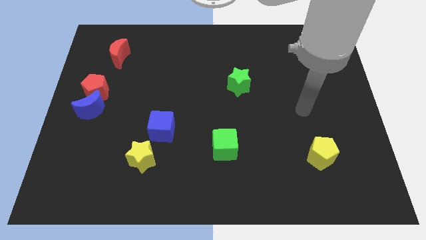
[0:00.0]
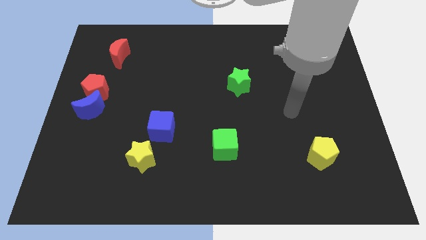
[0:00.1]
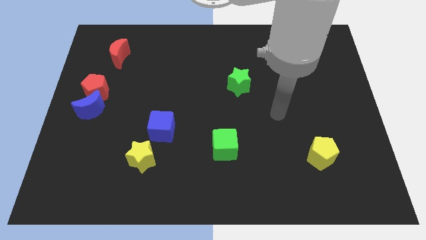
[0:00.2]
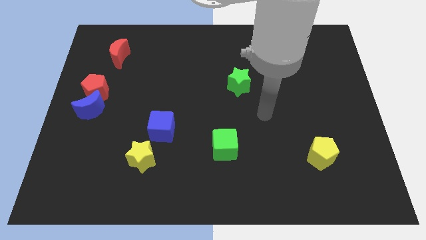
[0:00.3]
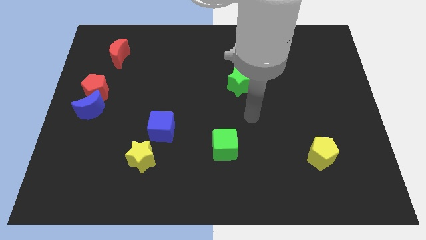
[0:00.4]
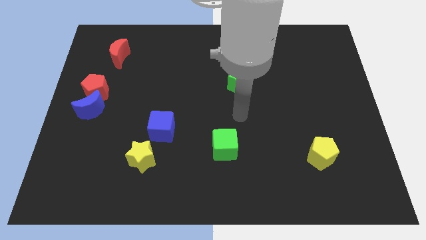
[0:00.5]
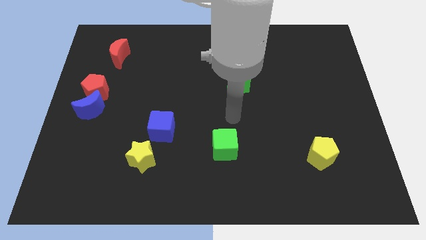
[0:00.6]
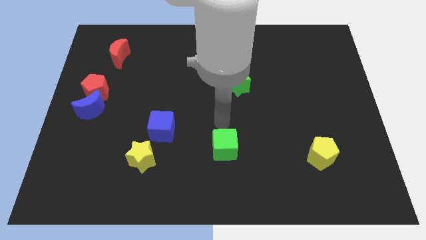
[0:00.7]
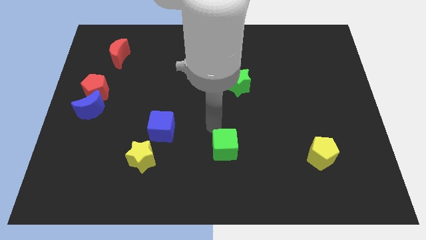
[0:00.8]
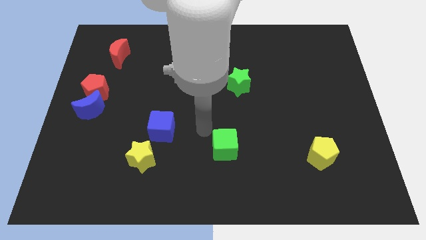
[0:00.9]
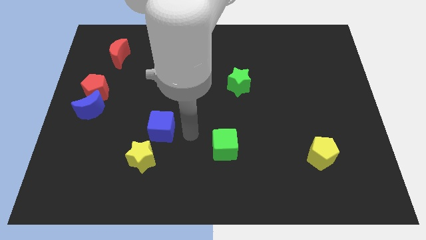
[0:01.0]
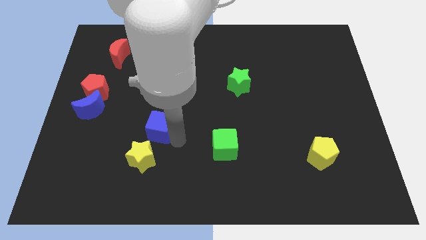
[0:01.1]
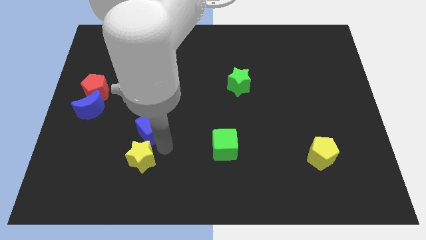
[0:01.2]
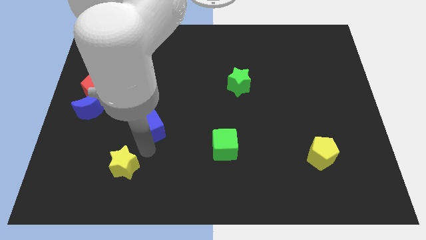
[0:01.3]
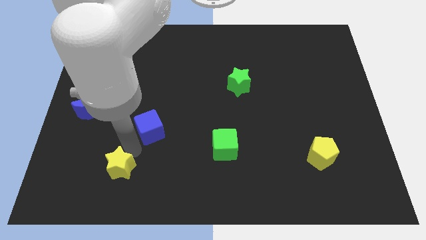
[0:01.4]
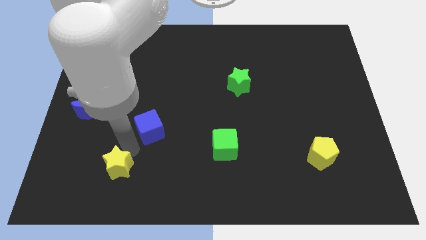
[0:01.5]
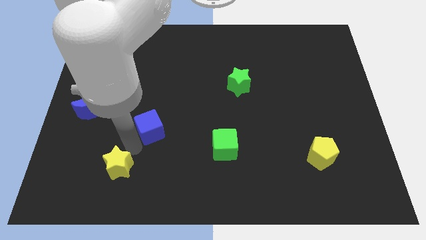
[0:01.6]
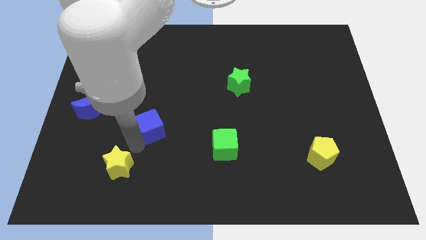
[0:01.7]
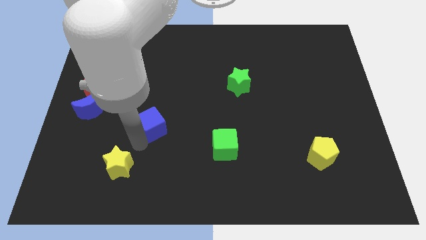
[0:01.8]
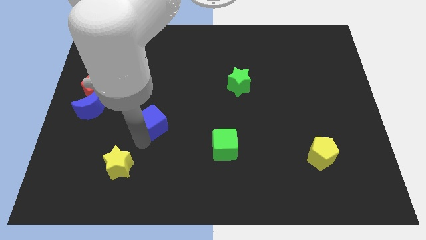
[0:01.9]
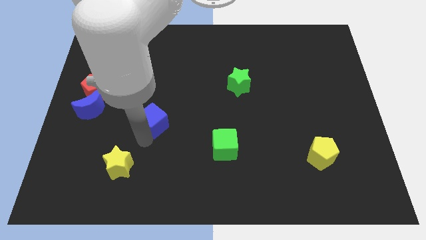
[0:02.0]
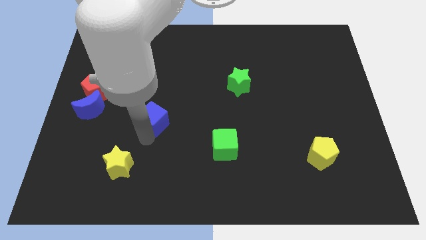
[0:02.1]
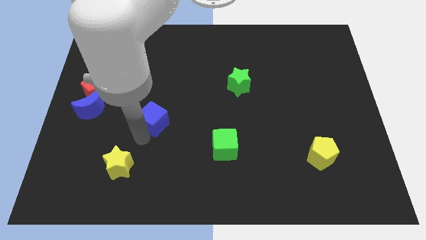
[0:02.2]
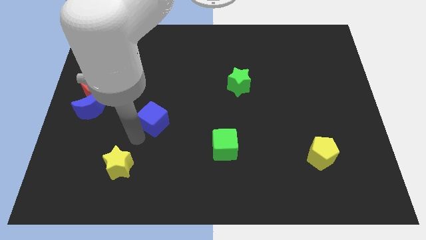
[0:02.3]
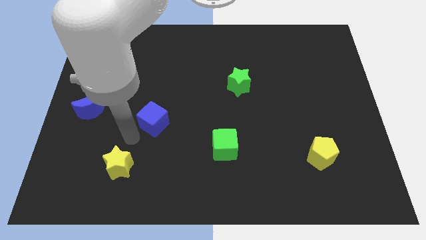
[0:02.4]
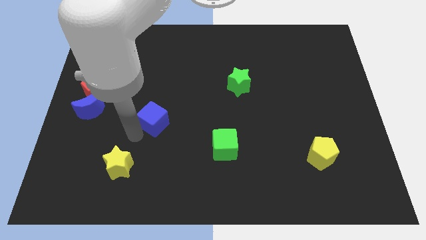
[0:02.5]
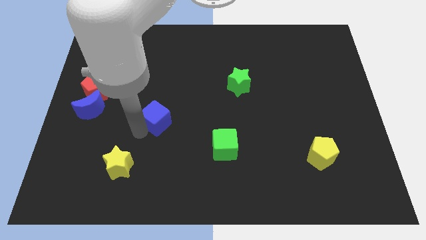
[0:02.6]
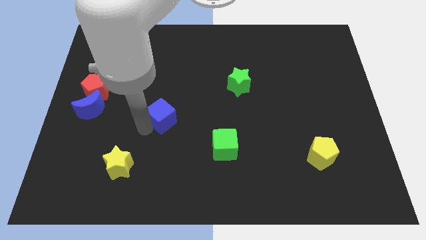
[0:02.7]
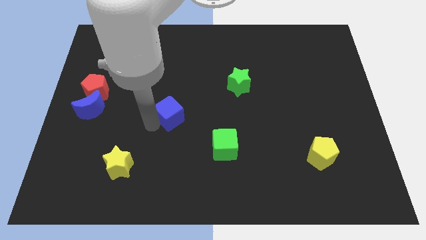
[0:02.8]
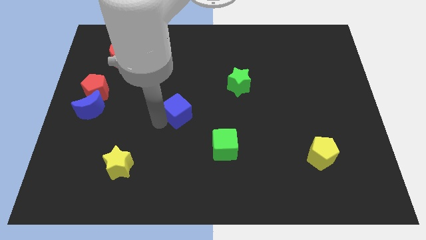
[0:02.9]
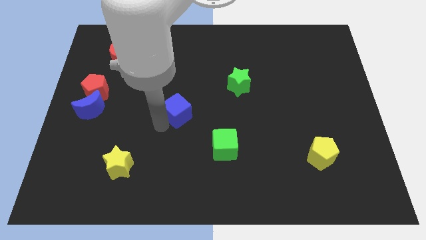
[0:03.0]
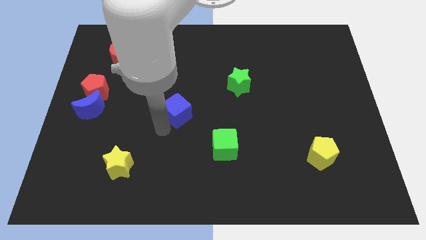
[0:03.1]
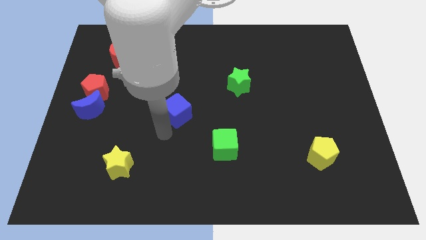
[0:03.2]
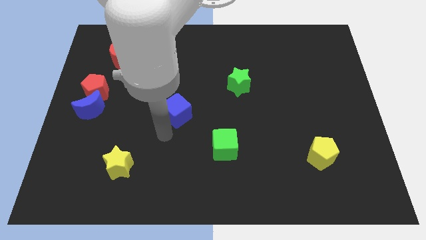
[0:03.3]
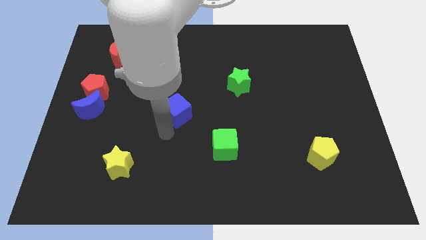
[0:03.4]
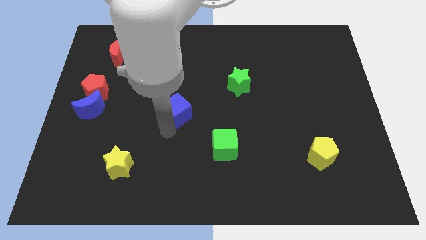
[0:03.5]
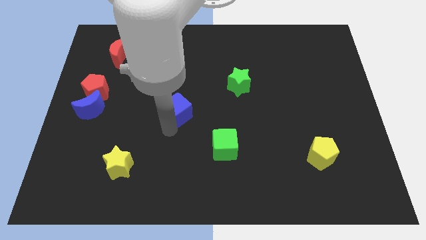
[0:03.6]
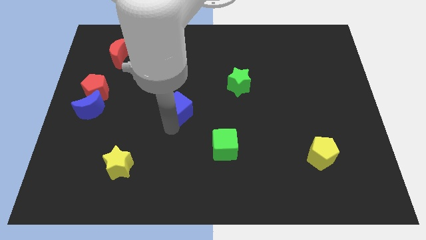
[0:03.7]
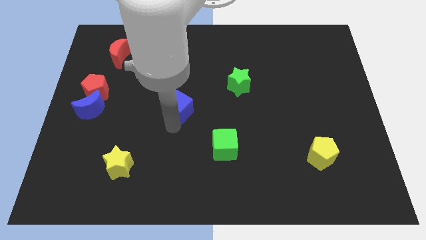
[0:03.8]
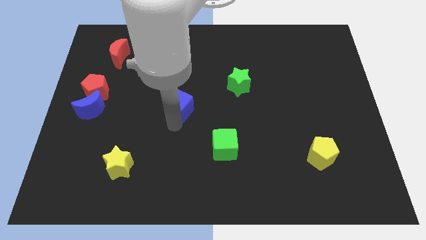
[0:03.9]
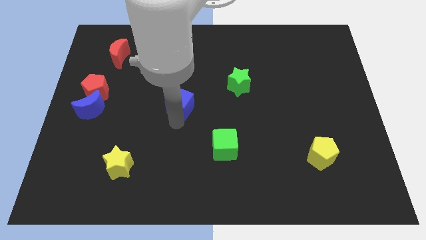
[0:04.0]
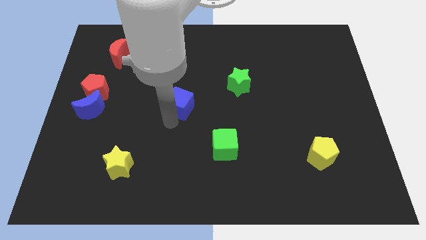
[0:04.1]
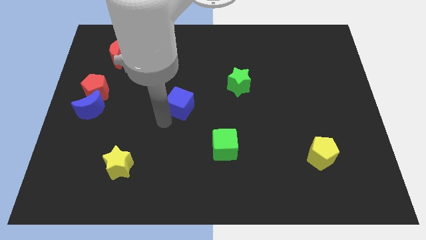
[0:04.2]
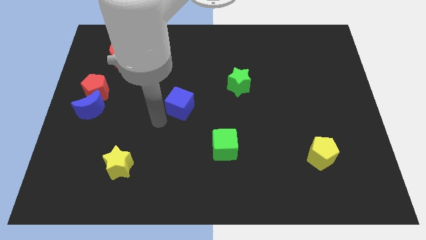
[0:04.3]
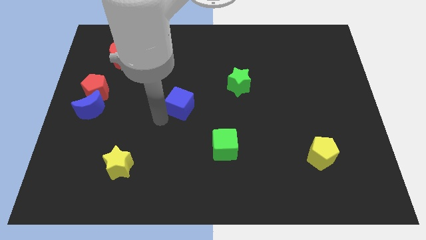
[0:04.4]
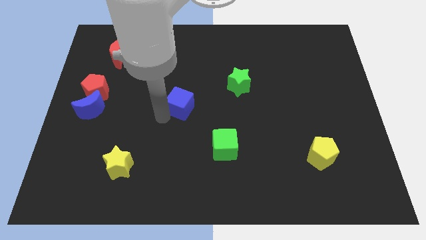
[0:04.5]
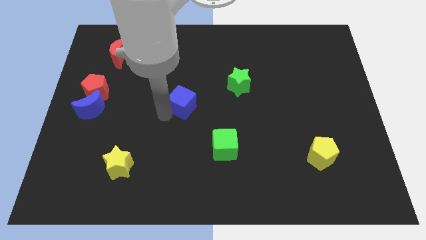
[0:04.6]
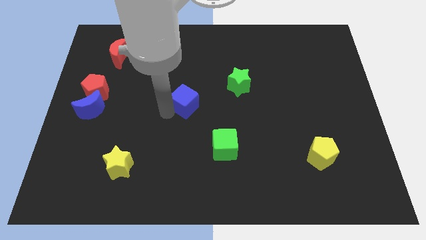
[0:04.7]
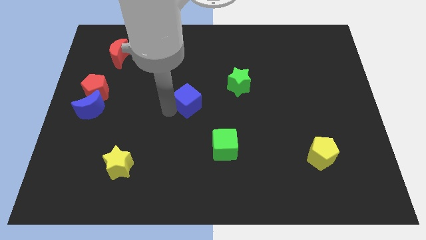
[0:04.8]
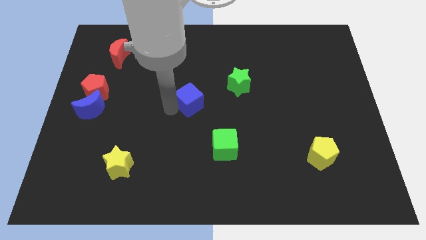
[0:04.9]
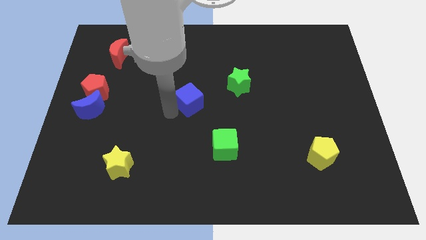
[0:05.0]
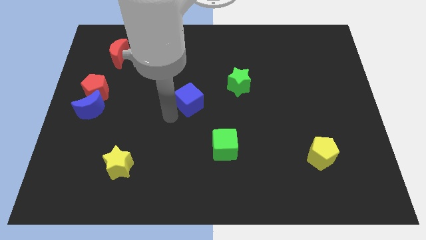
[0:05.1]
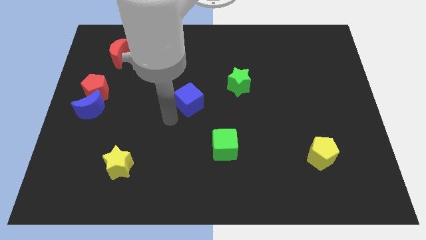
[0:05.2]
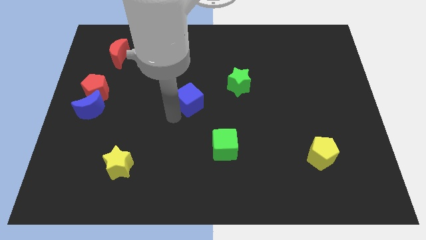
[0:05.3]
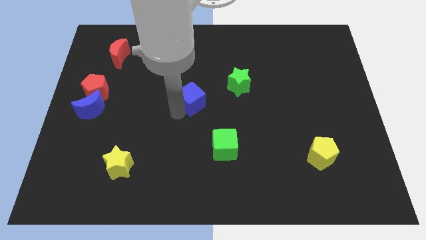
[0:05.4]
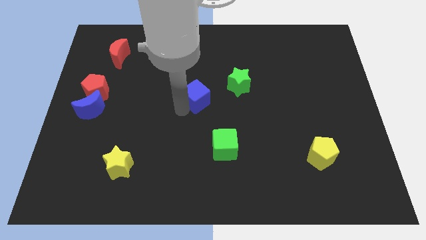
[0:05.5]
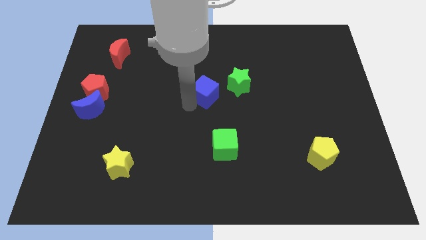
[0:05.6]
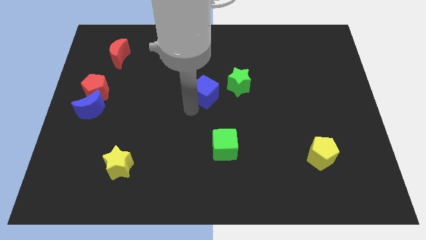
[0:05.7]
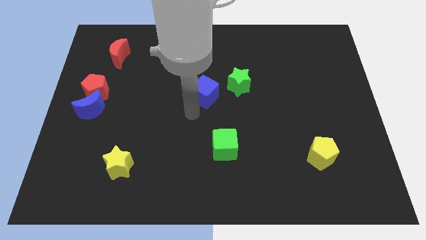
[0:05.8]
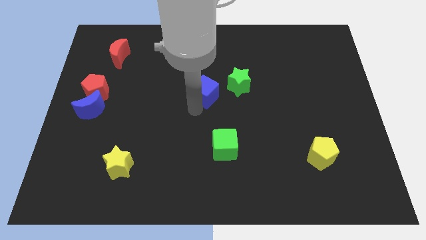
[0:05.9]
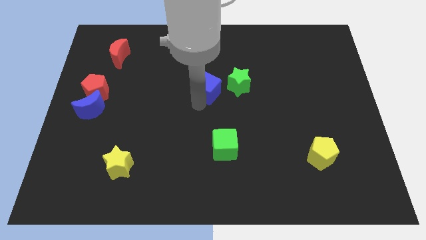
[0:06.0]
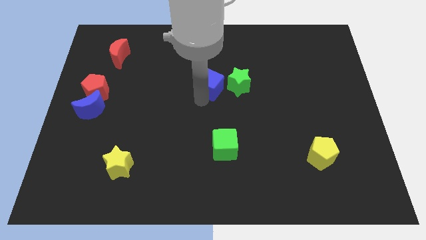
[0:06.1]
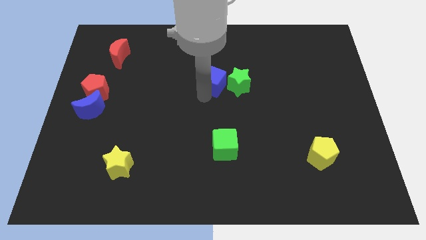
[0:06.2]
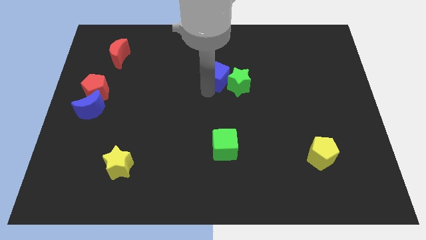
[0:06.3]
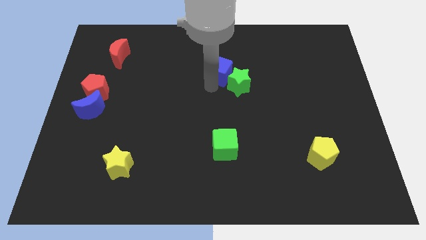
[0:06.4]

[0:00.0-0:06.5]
move the blue cube upwards and to the right diagonally

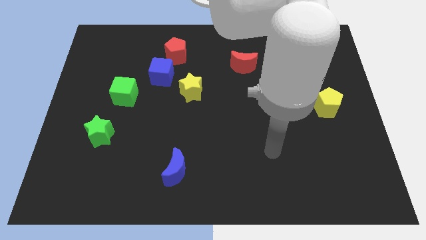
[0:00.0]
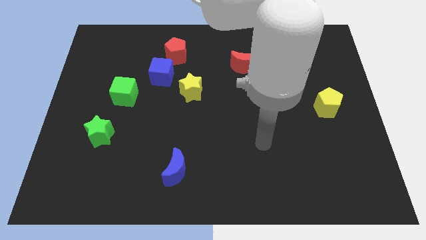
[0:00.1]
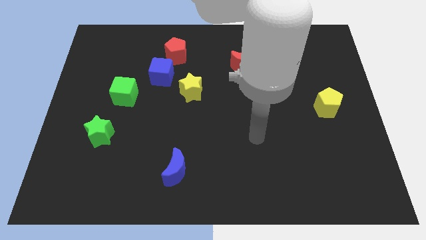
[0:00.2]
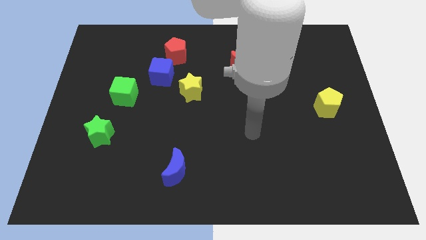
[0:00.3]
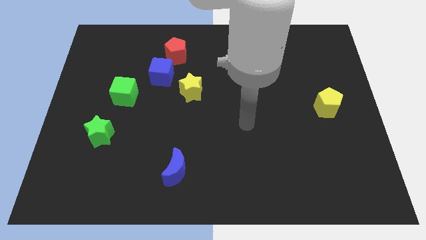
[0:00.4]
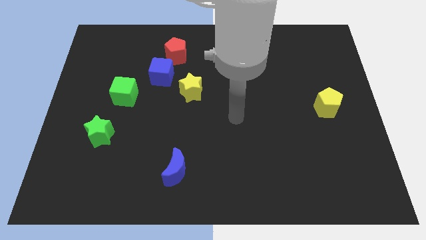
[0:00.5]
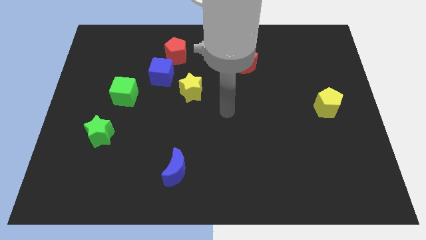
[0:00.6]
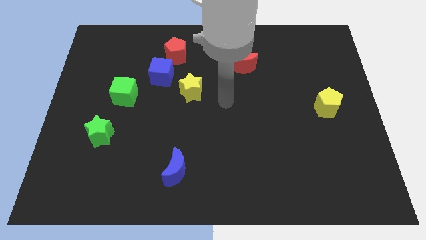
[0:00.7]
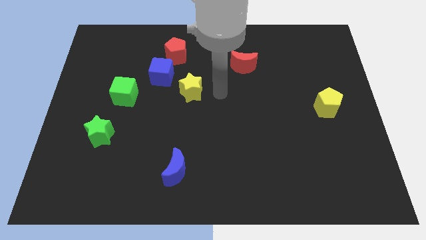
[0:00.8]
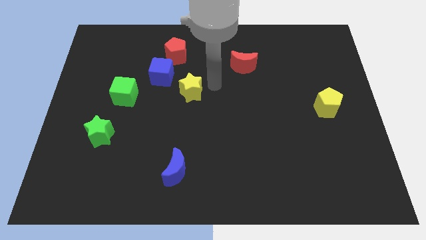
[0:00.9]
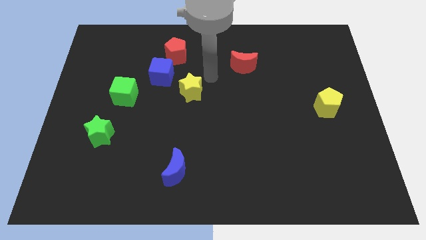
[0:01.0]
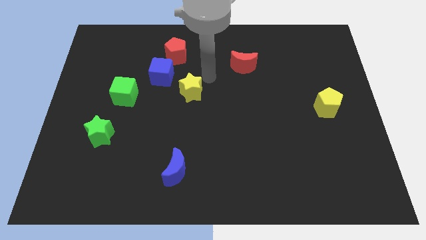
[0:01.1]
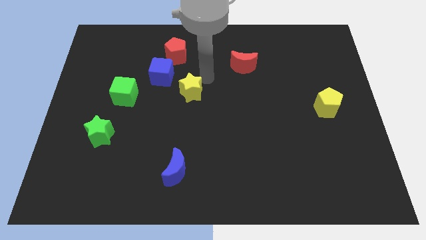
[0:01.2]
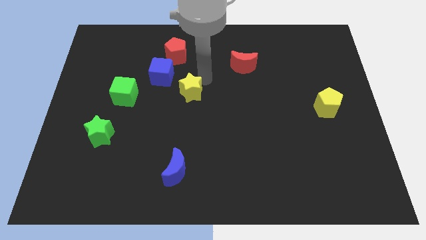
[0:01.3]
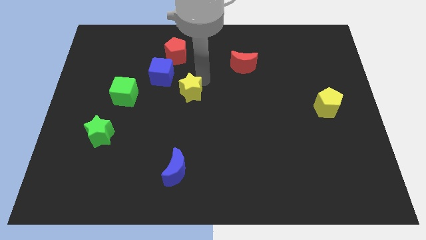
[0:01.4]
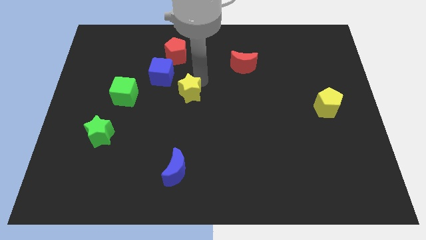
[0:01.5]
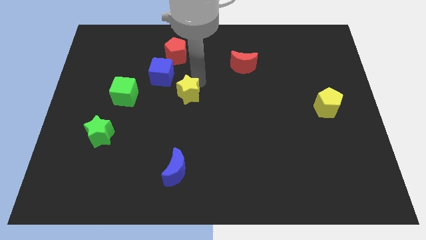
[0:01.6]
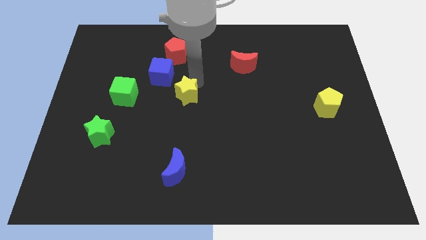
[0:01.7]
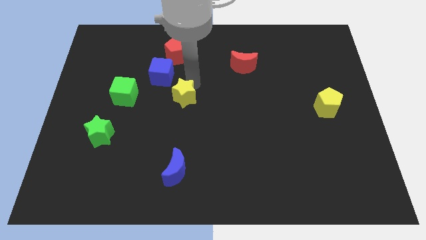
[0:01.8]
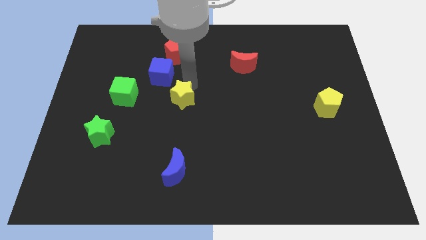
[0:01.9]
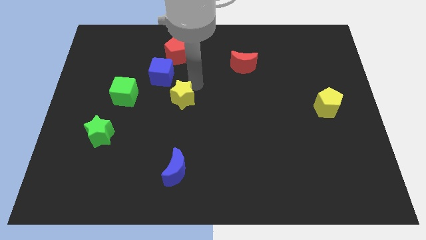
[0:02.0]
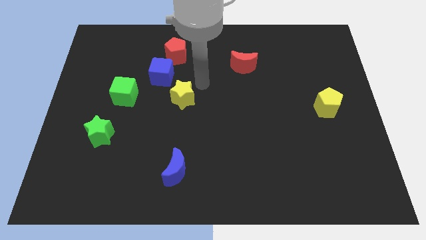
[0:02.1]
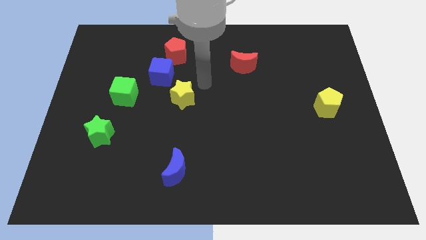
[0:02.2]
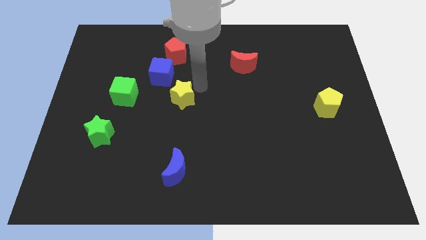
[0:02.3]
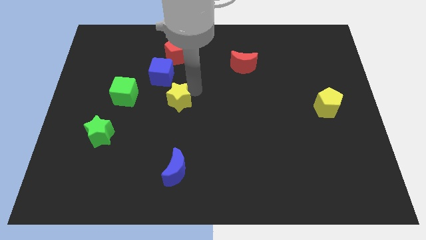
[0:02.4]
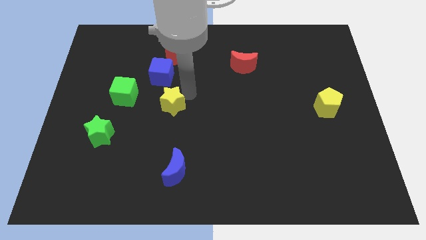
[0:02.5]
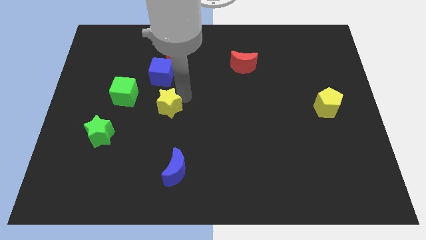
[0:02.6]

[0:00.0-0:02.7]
slide the yellow star diagonally downwards and left somewhat
